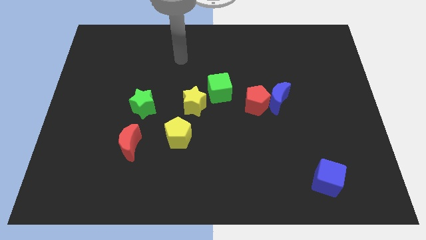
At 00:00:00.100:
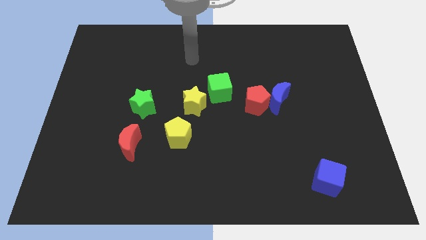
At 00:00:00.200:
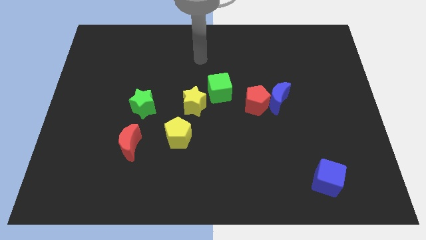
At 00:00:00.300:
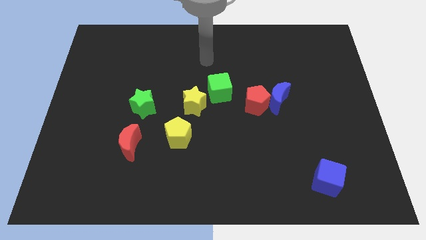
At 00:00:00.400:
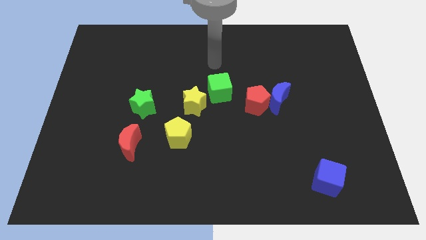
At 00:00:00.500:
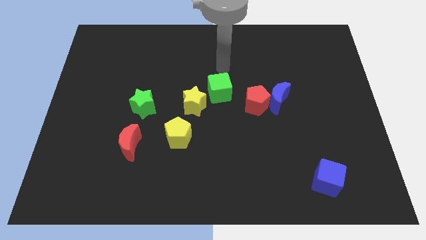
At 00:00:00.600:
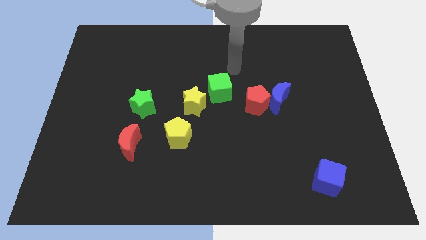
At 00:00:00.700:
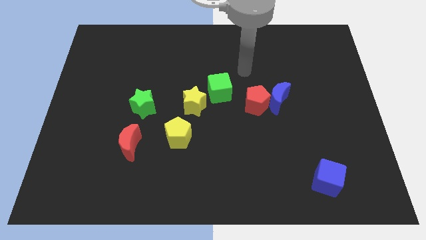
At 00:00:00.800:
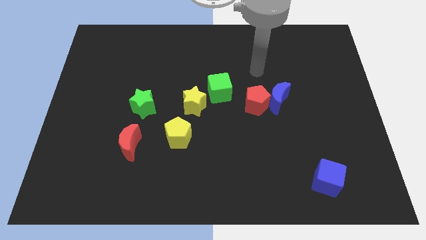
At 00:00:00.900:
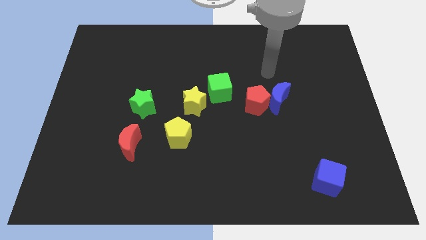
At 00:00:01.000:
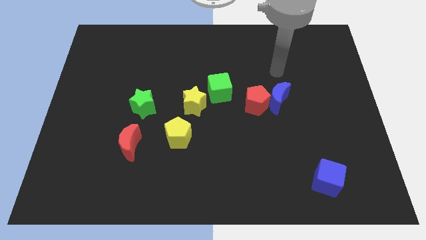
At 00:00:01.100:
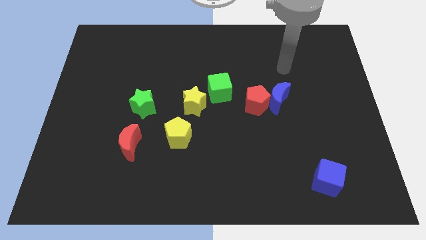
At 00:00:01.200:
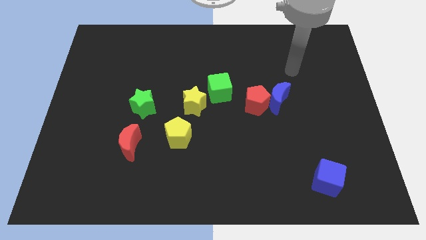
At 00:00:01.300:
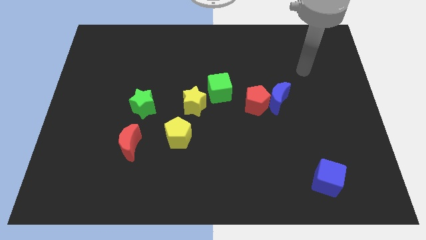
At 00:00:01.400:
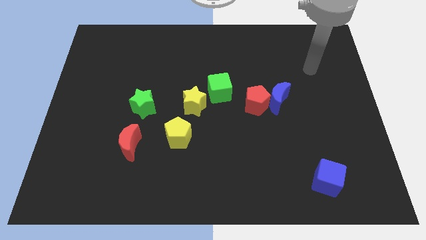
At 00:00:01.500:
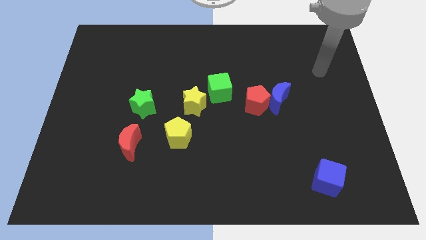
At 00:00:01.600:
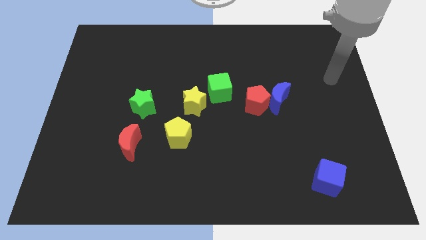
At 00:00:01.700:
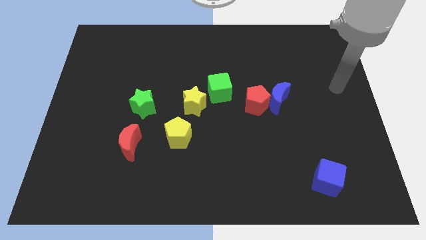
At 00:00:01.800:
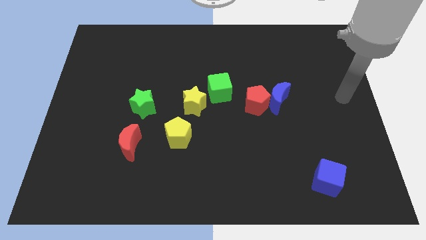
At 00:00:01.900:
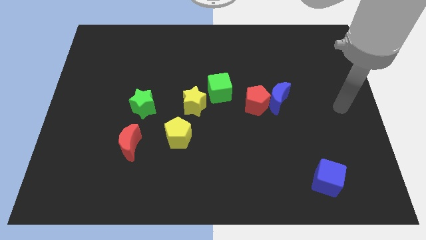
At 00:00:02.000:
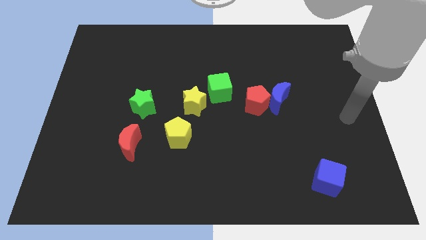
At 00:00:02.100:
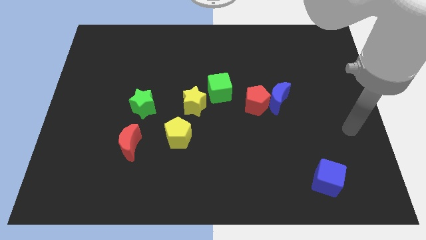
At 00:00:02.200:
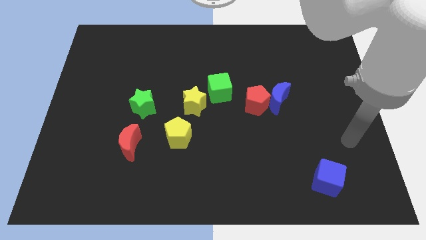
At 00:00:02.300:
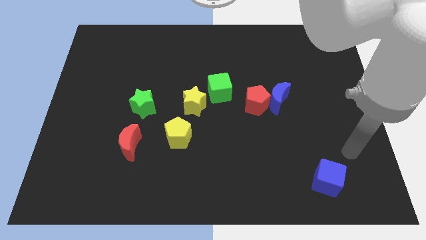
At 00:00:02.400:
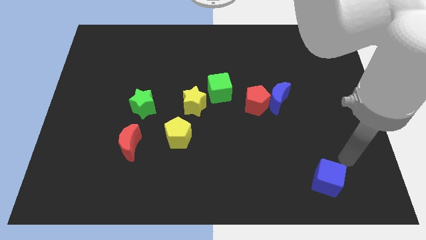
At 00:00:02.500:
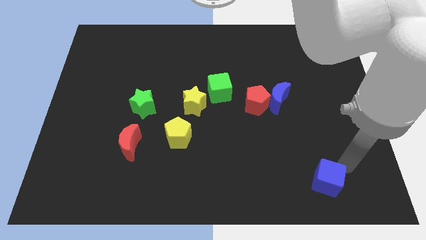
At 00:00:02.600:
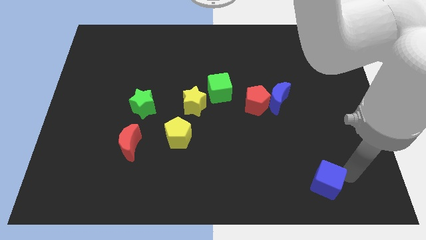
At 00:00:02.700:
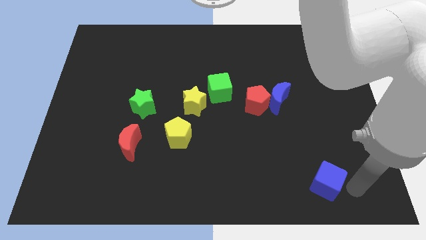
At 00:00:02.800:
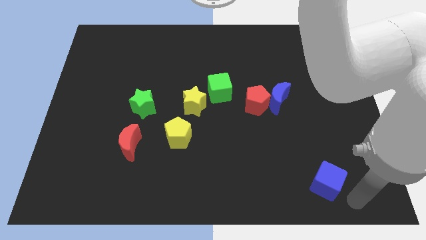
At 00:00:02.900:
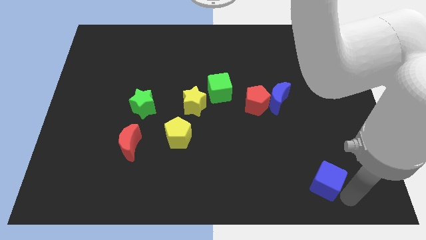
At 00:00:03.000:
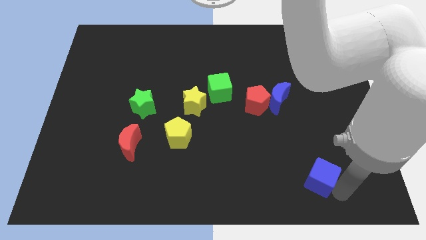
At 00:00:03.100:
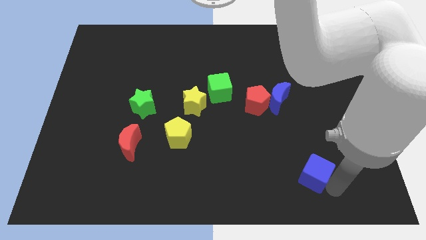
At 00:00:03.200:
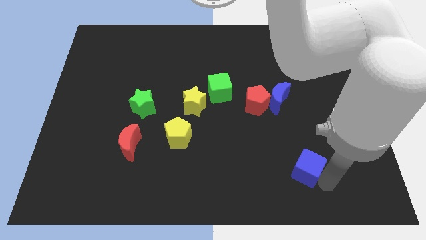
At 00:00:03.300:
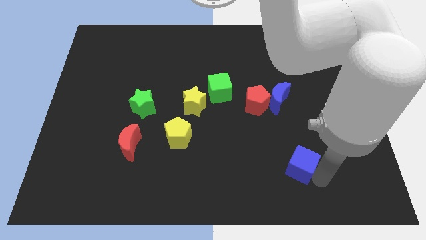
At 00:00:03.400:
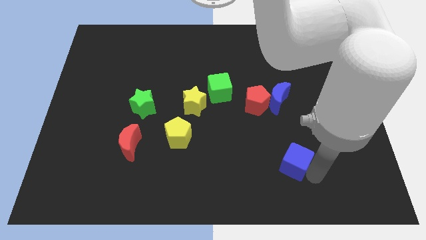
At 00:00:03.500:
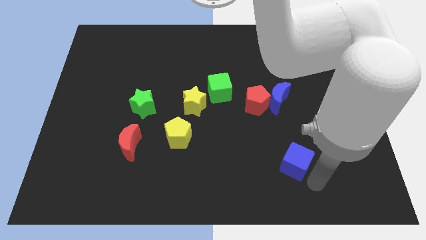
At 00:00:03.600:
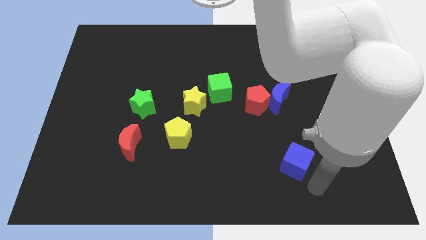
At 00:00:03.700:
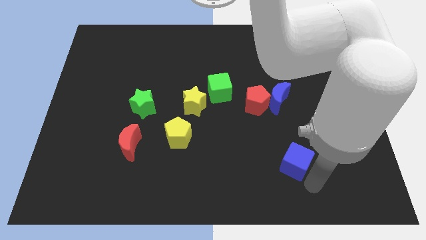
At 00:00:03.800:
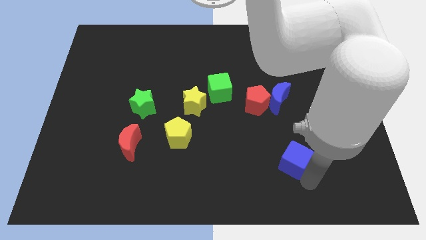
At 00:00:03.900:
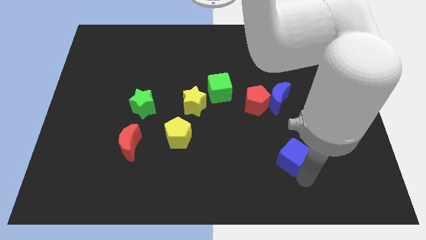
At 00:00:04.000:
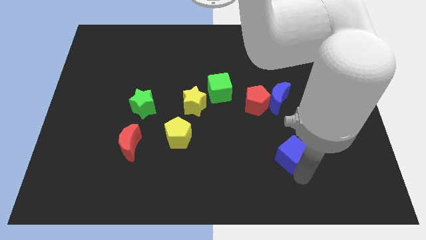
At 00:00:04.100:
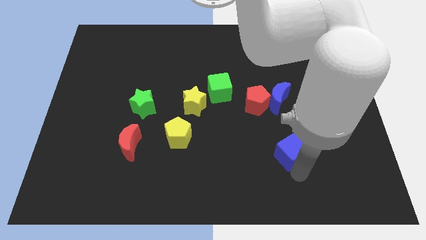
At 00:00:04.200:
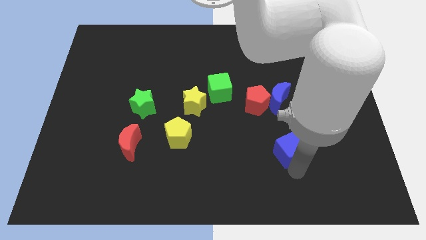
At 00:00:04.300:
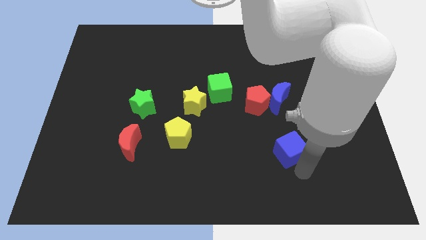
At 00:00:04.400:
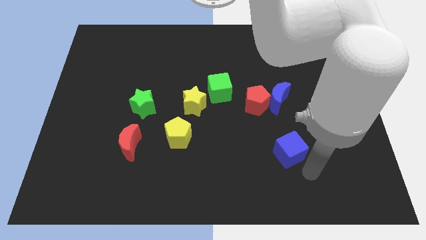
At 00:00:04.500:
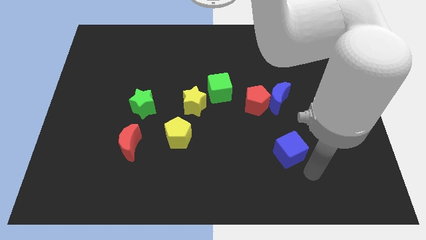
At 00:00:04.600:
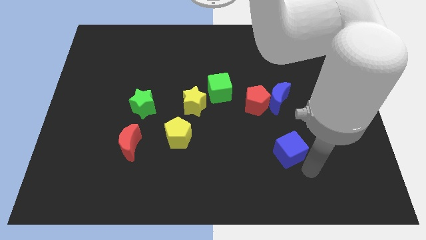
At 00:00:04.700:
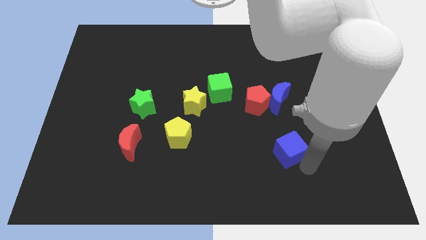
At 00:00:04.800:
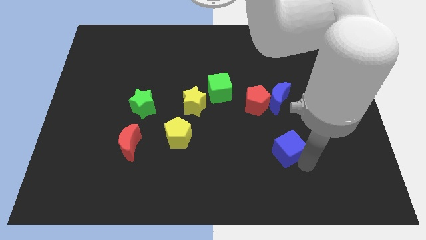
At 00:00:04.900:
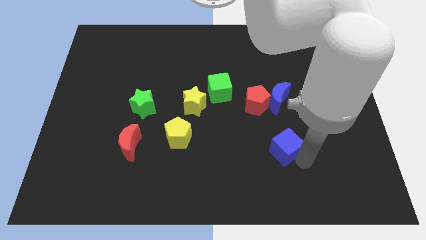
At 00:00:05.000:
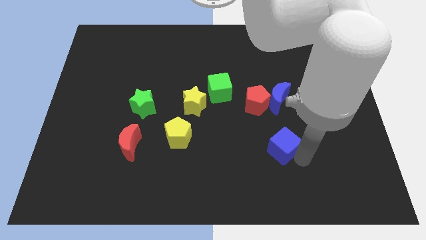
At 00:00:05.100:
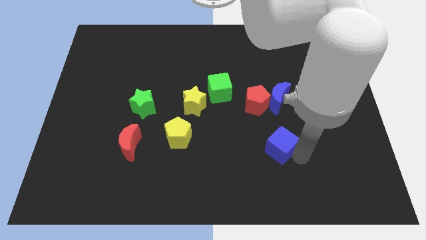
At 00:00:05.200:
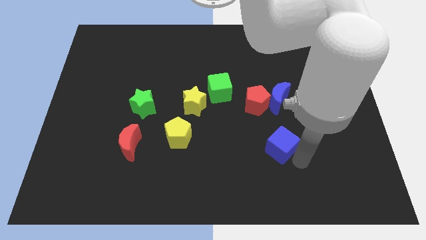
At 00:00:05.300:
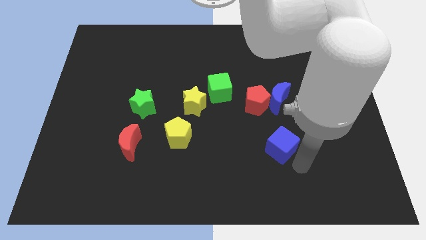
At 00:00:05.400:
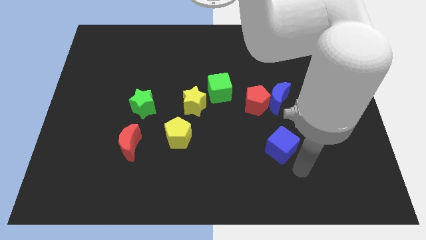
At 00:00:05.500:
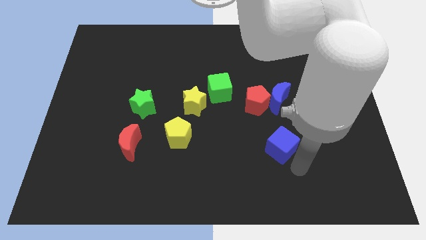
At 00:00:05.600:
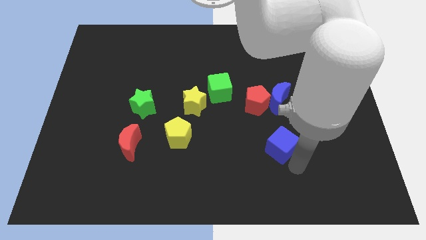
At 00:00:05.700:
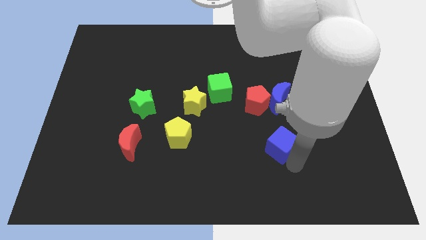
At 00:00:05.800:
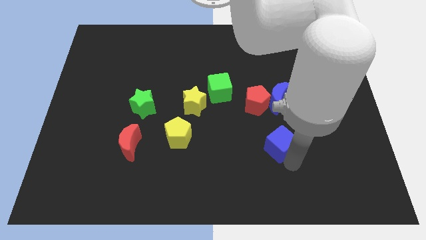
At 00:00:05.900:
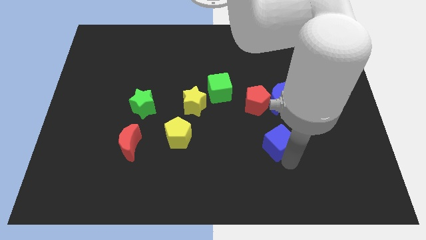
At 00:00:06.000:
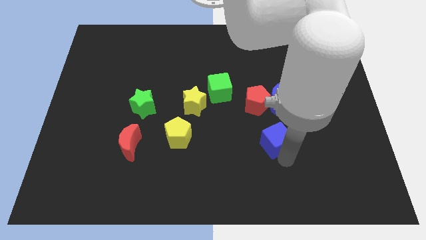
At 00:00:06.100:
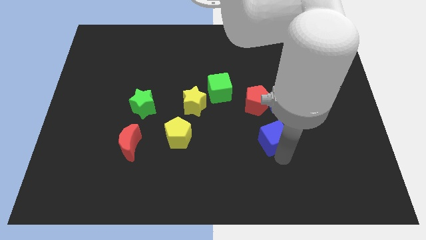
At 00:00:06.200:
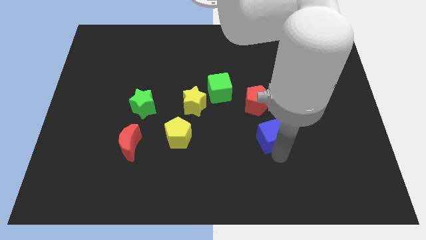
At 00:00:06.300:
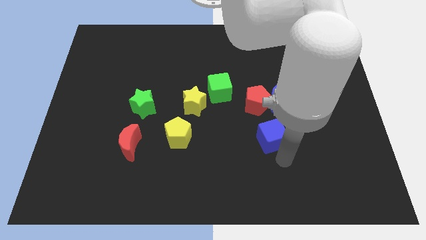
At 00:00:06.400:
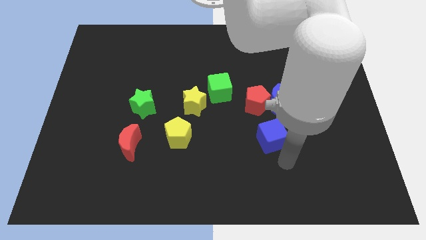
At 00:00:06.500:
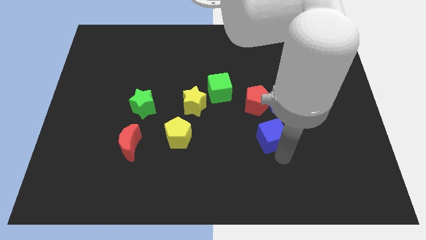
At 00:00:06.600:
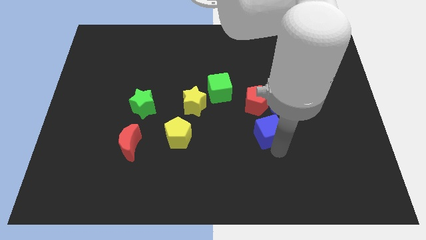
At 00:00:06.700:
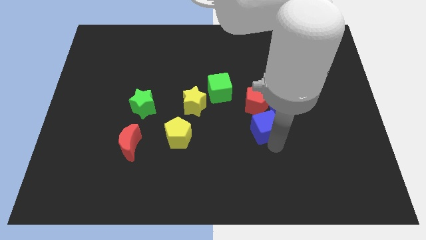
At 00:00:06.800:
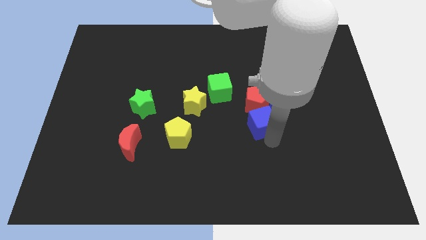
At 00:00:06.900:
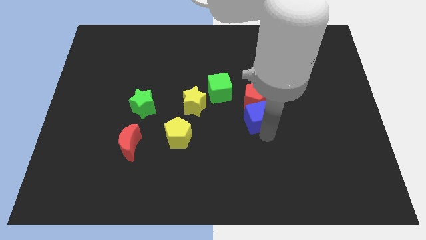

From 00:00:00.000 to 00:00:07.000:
put the blue cube next to the red pentagon
